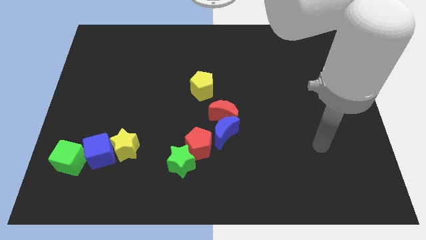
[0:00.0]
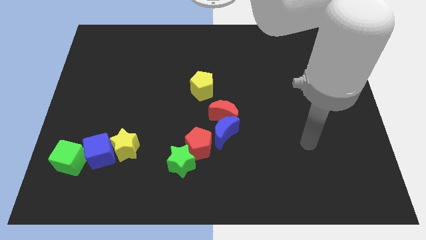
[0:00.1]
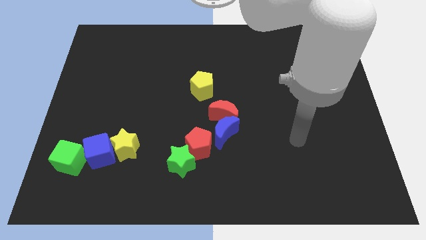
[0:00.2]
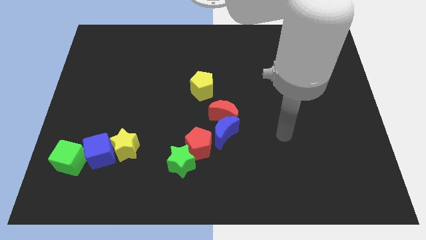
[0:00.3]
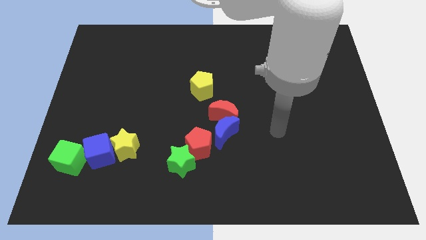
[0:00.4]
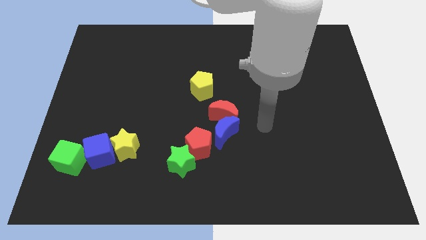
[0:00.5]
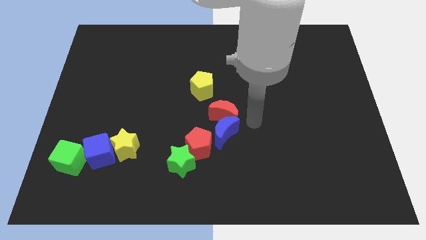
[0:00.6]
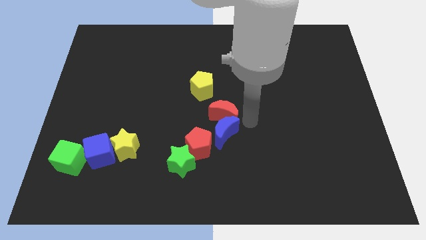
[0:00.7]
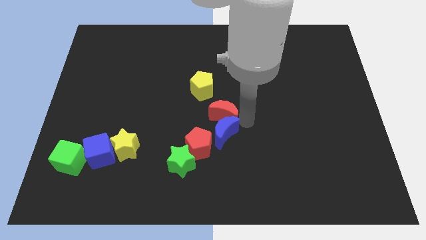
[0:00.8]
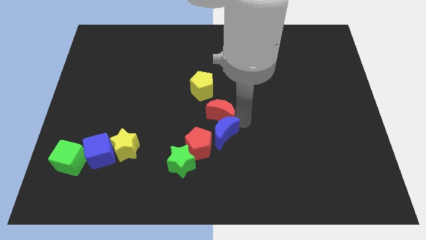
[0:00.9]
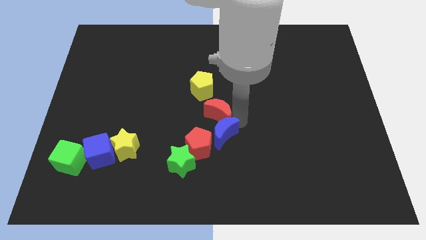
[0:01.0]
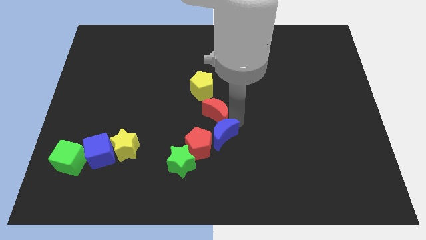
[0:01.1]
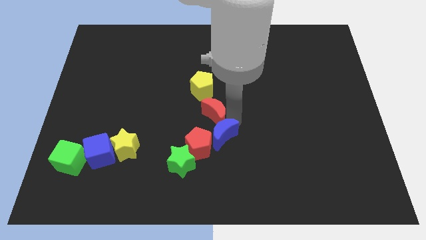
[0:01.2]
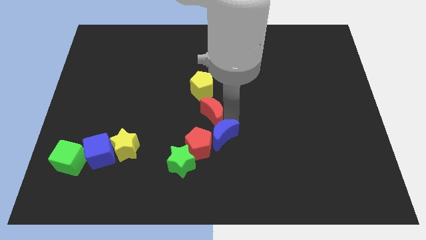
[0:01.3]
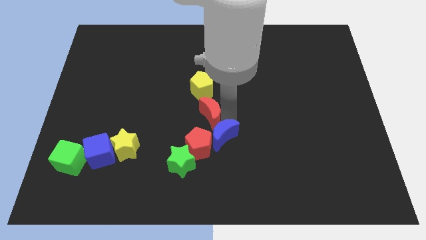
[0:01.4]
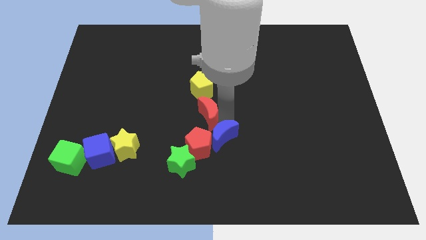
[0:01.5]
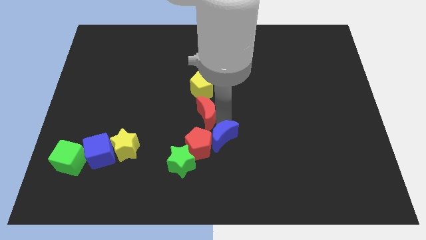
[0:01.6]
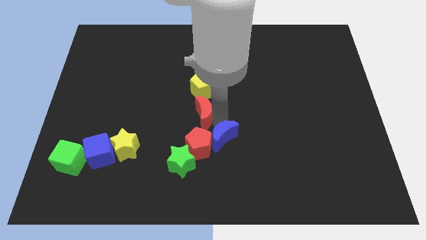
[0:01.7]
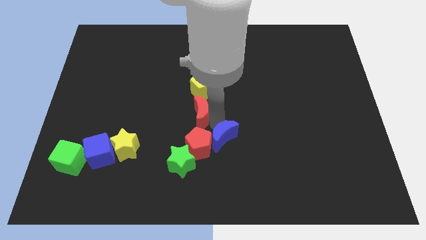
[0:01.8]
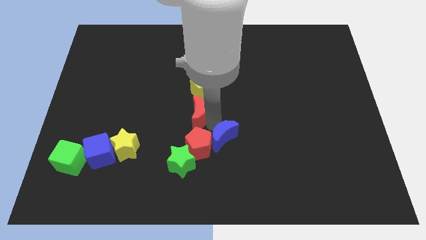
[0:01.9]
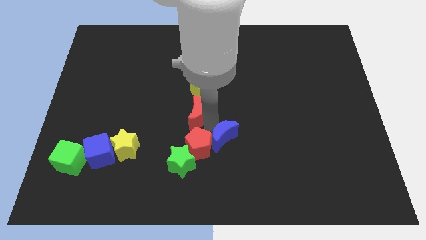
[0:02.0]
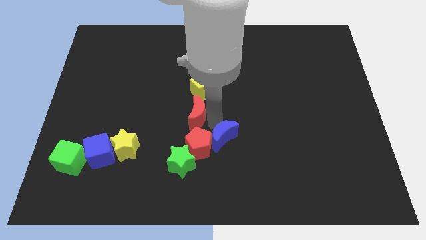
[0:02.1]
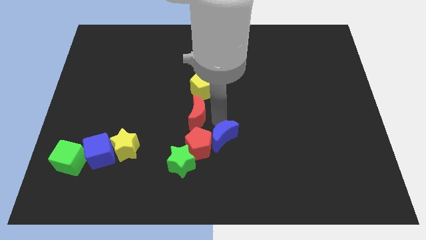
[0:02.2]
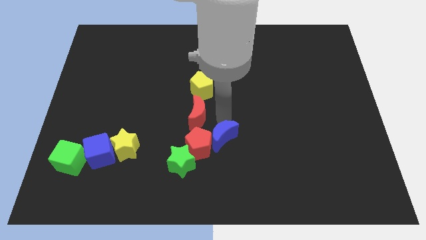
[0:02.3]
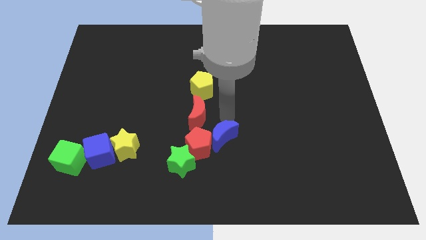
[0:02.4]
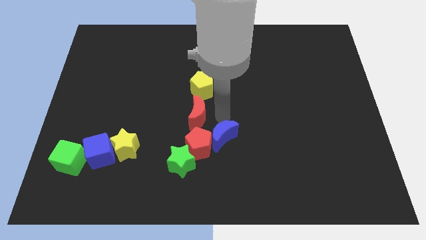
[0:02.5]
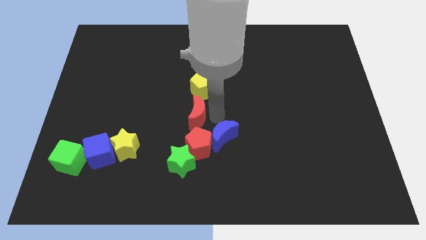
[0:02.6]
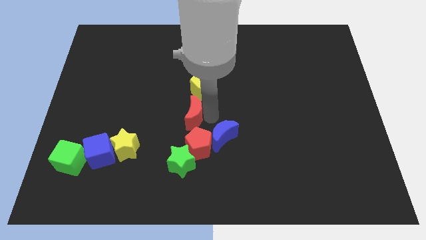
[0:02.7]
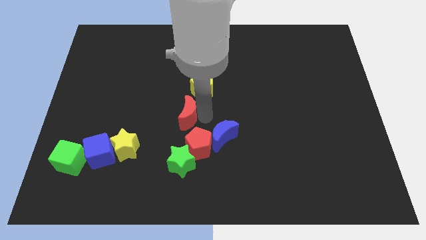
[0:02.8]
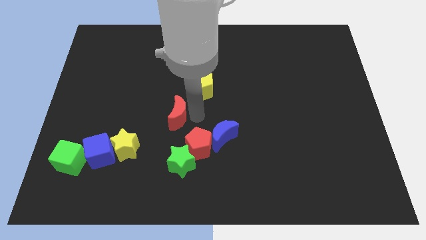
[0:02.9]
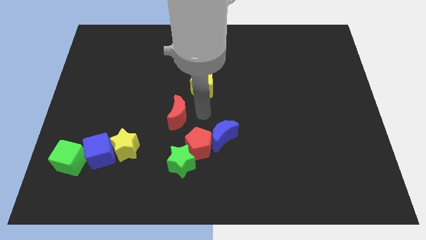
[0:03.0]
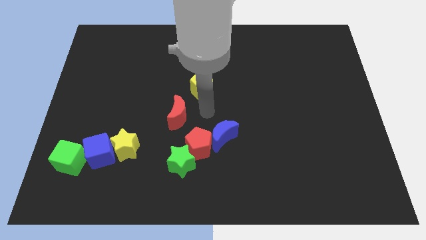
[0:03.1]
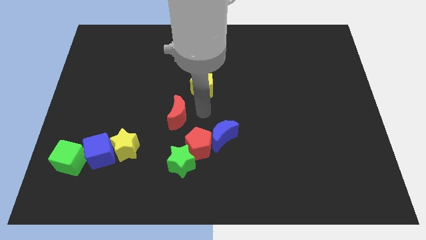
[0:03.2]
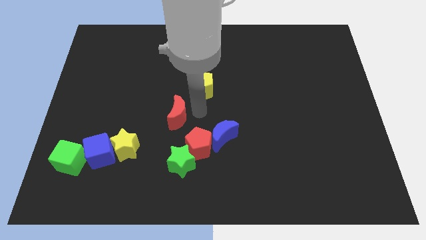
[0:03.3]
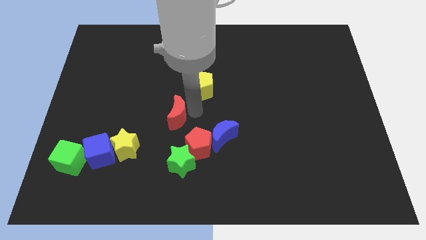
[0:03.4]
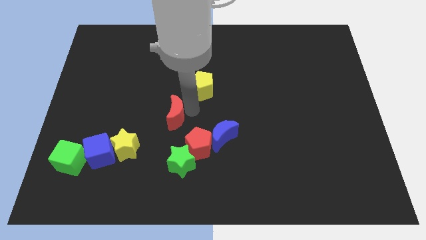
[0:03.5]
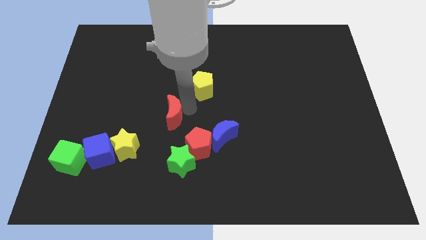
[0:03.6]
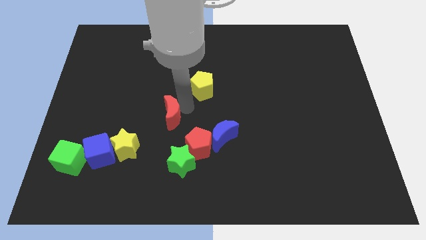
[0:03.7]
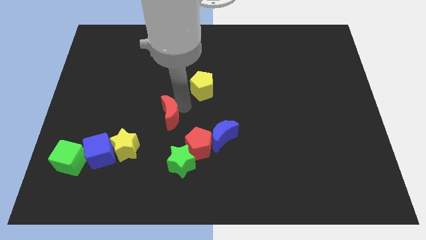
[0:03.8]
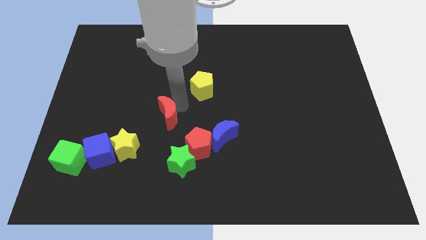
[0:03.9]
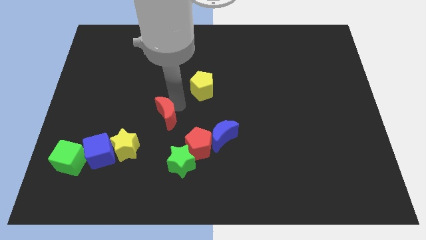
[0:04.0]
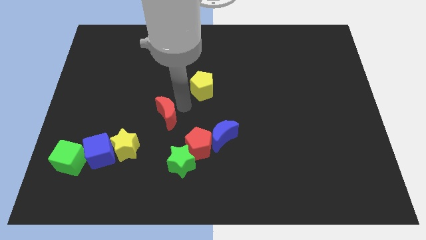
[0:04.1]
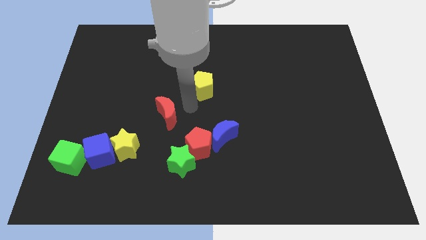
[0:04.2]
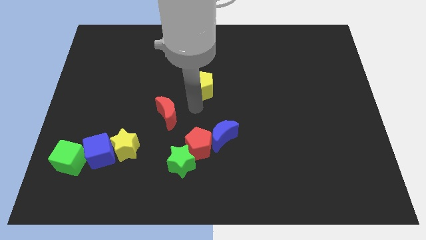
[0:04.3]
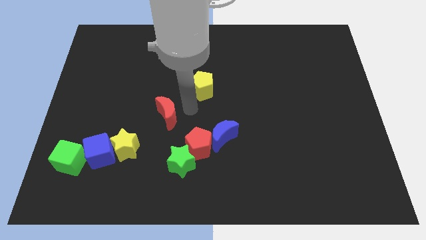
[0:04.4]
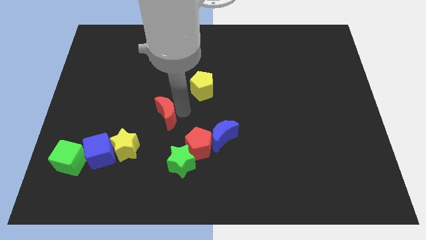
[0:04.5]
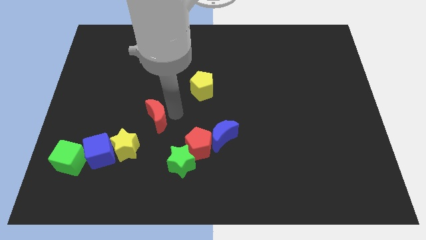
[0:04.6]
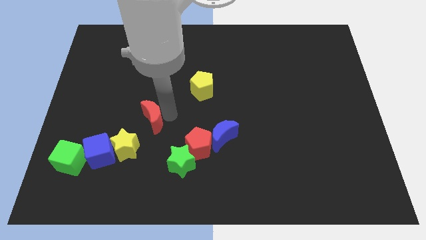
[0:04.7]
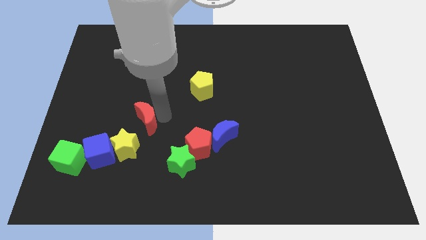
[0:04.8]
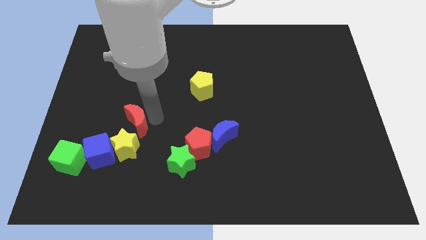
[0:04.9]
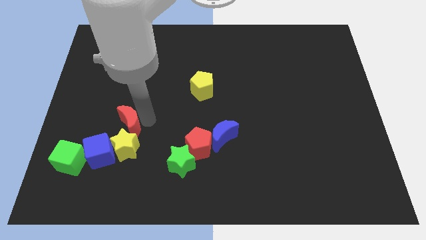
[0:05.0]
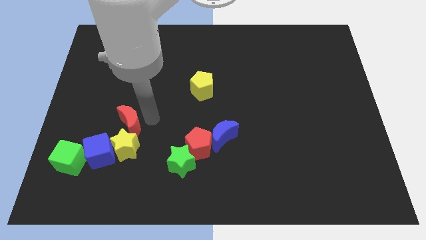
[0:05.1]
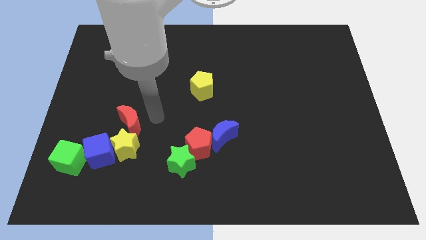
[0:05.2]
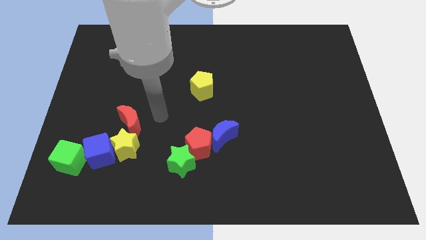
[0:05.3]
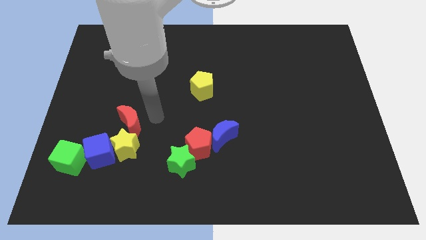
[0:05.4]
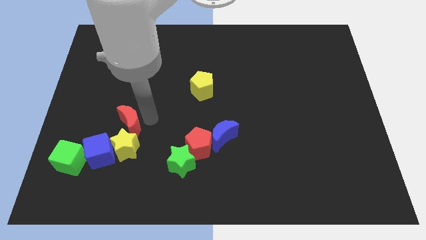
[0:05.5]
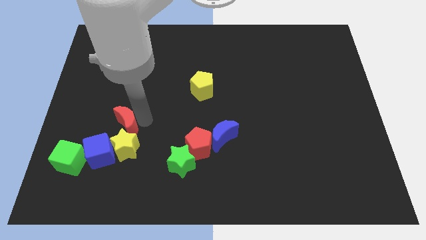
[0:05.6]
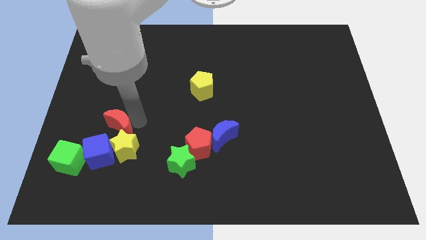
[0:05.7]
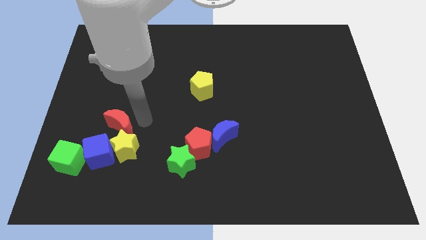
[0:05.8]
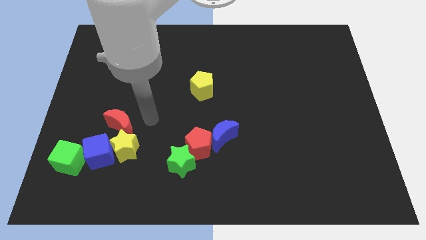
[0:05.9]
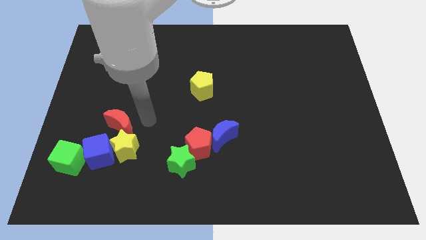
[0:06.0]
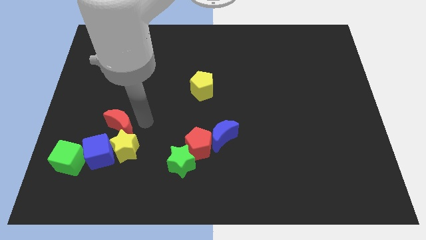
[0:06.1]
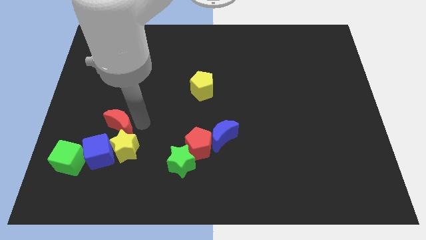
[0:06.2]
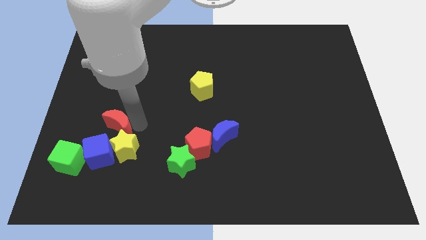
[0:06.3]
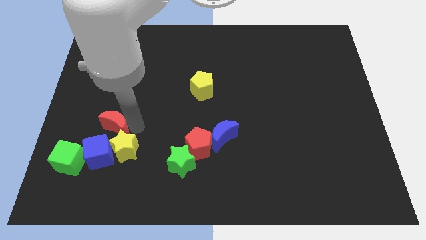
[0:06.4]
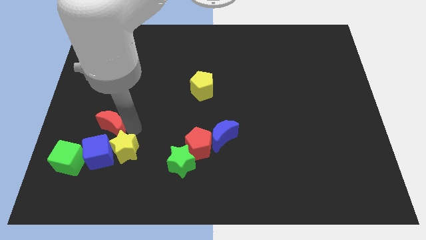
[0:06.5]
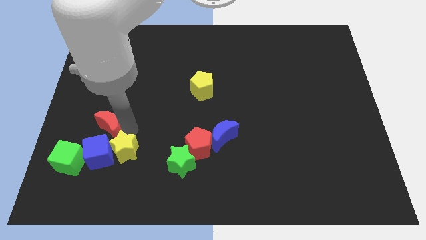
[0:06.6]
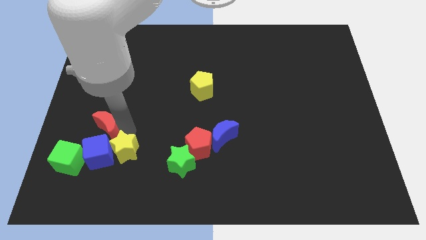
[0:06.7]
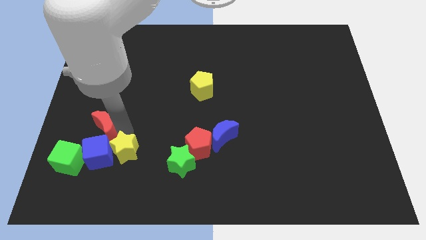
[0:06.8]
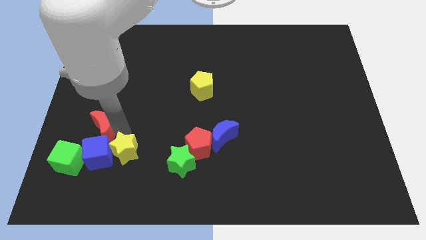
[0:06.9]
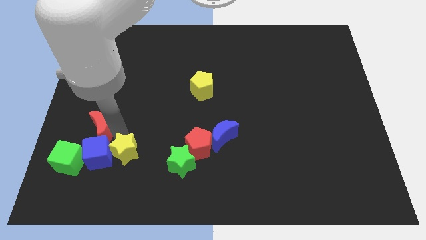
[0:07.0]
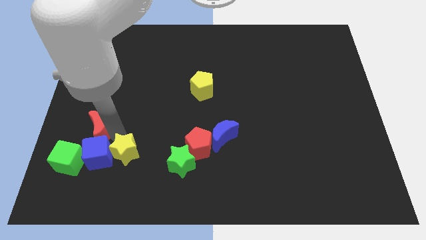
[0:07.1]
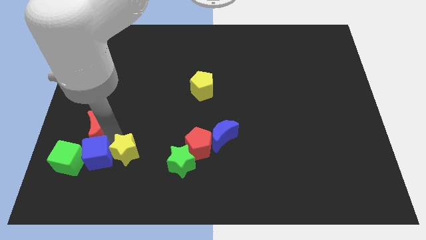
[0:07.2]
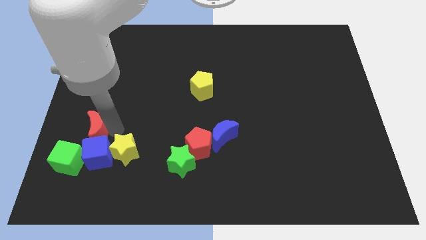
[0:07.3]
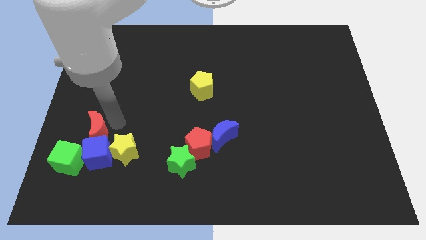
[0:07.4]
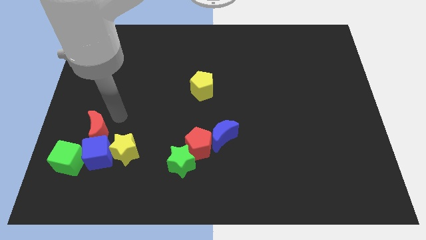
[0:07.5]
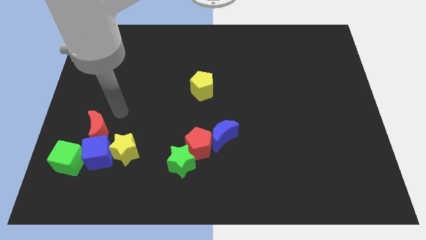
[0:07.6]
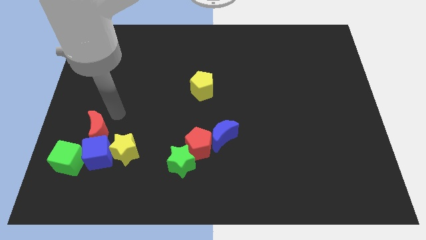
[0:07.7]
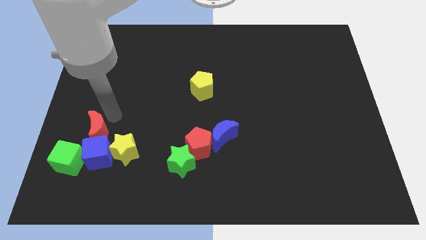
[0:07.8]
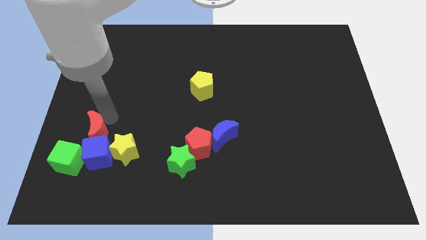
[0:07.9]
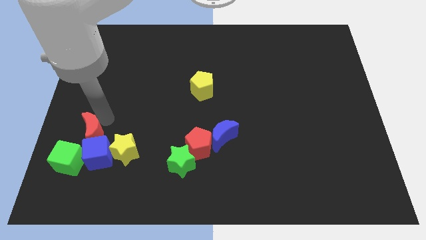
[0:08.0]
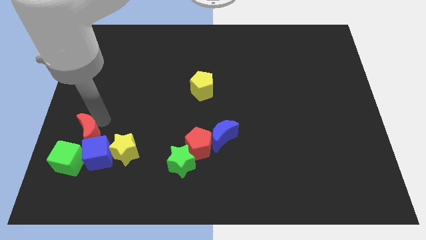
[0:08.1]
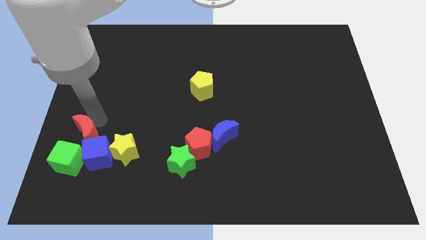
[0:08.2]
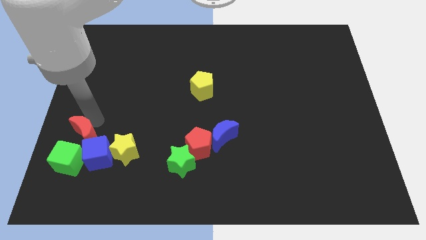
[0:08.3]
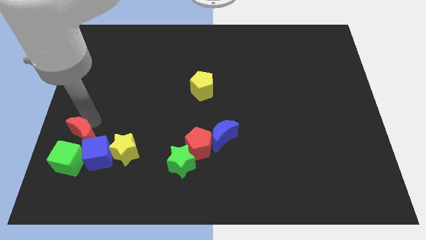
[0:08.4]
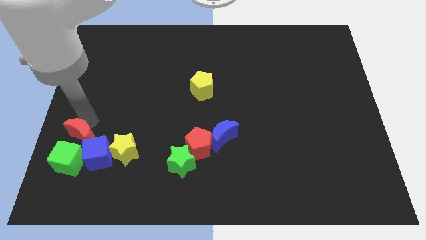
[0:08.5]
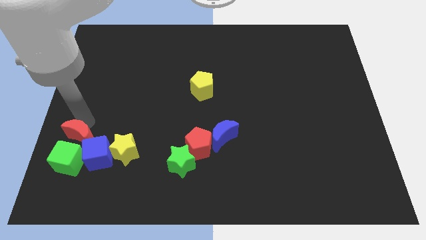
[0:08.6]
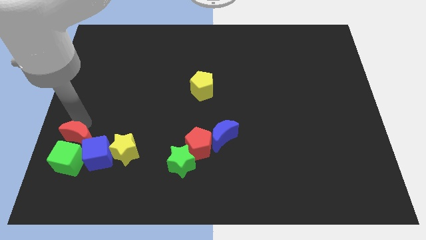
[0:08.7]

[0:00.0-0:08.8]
move the red moon to the green cube
